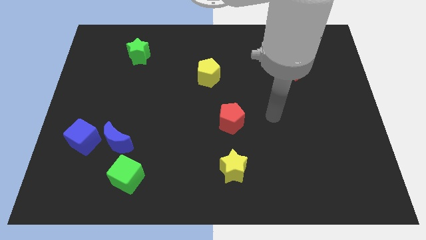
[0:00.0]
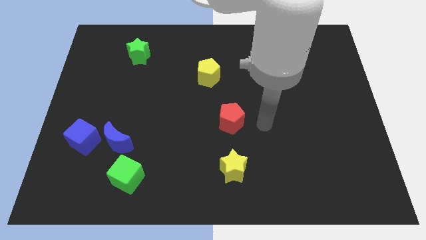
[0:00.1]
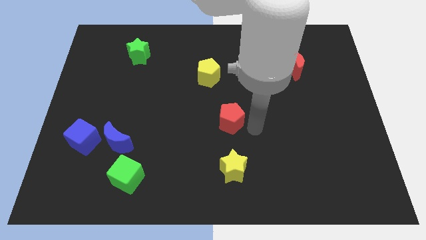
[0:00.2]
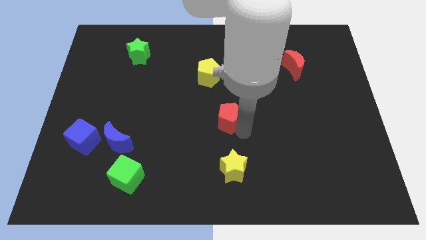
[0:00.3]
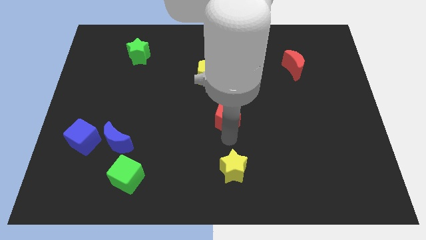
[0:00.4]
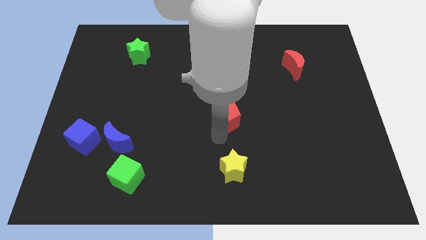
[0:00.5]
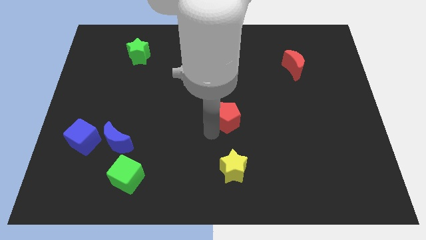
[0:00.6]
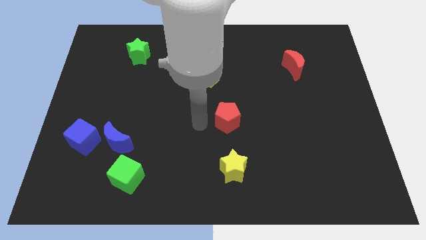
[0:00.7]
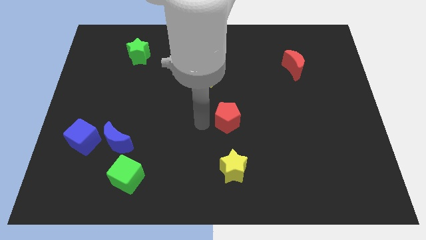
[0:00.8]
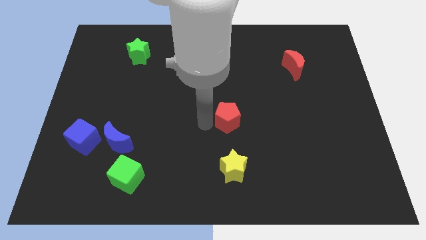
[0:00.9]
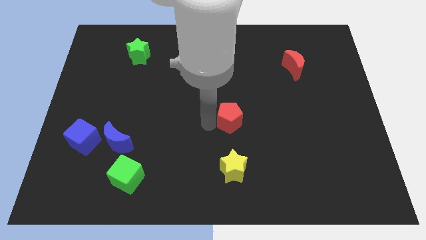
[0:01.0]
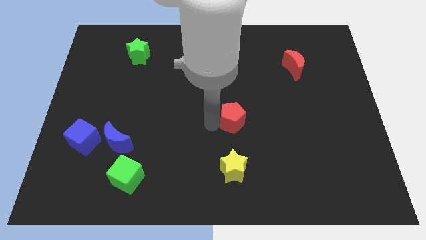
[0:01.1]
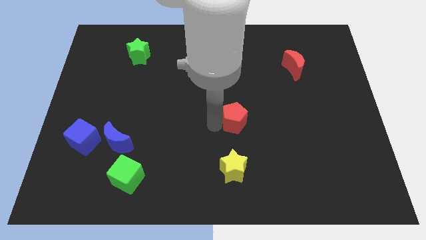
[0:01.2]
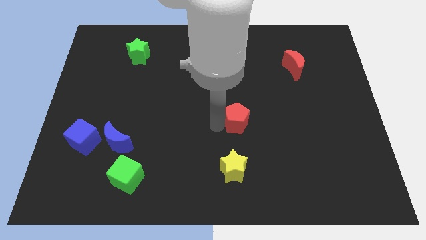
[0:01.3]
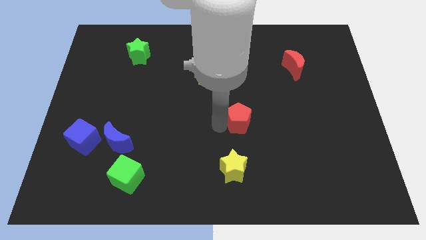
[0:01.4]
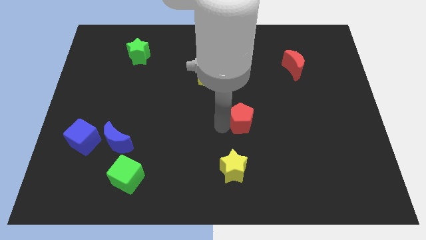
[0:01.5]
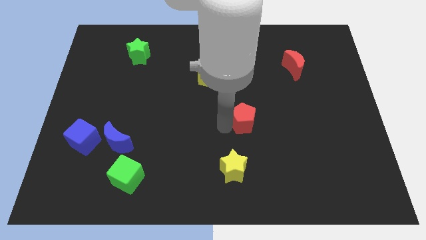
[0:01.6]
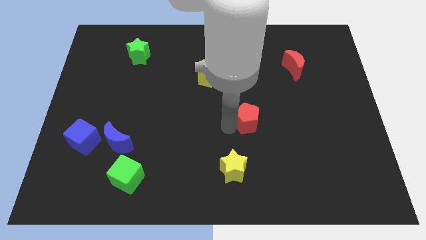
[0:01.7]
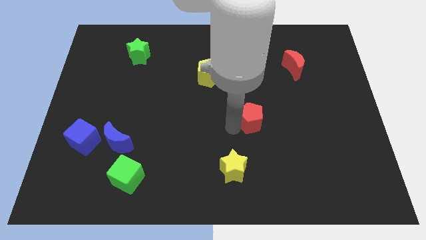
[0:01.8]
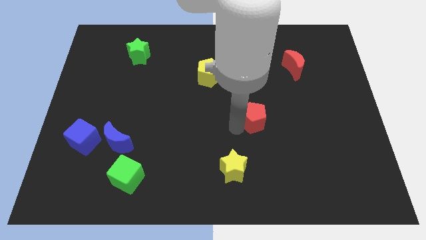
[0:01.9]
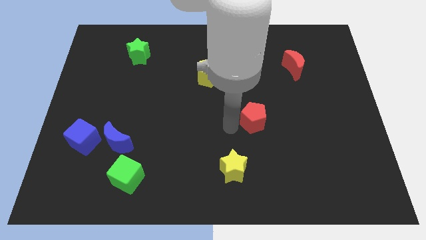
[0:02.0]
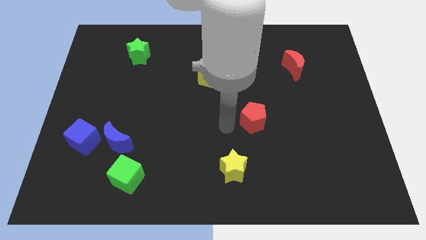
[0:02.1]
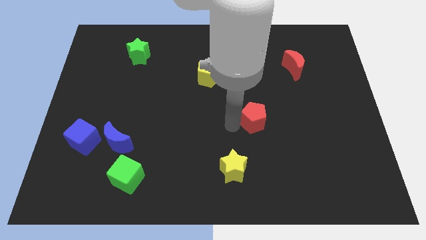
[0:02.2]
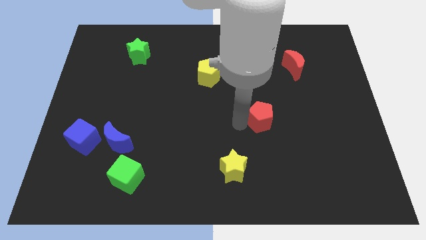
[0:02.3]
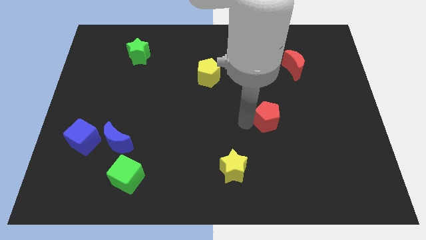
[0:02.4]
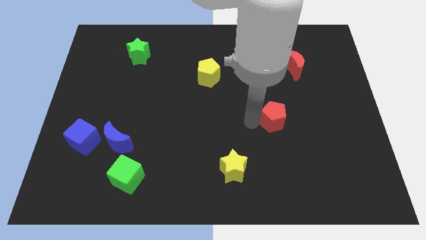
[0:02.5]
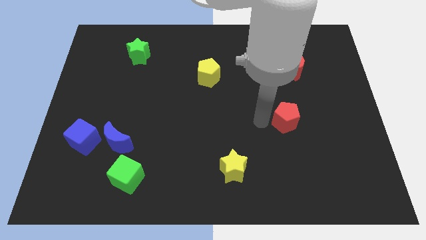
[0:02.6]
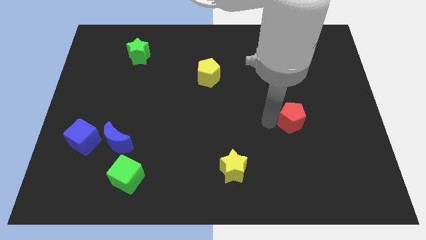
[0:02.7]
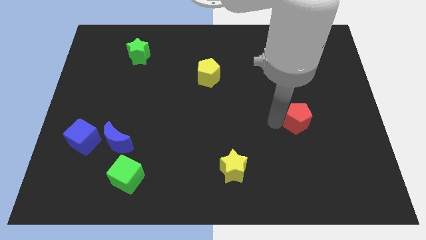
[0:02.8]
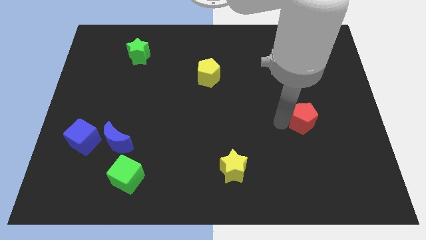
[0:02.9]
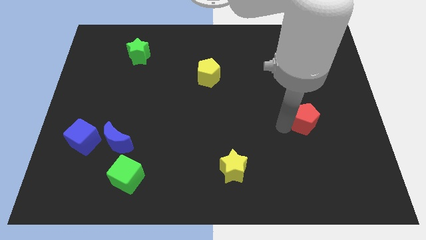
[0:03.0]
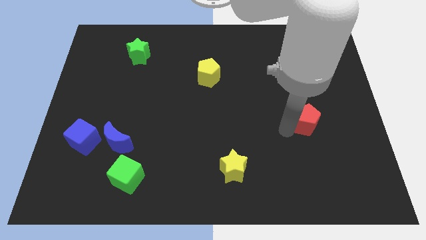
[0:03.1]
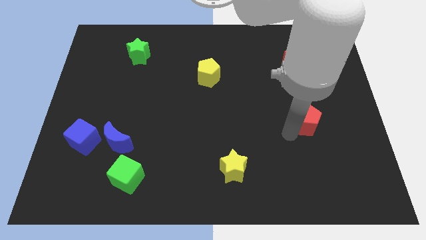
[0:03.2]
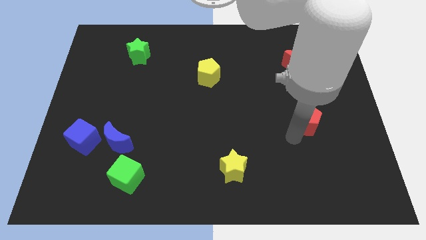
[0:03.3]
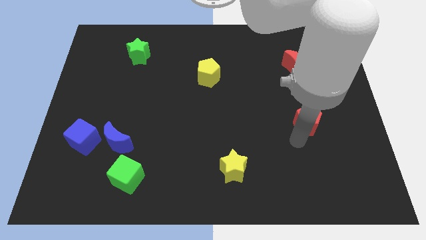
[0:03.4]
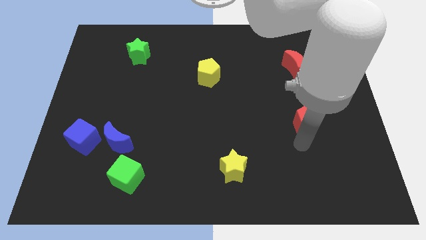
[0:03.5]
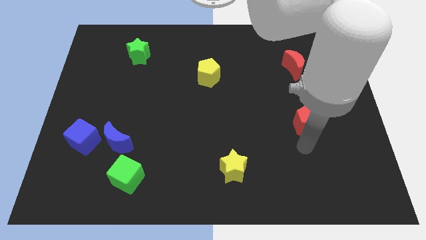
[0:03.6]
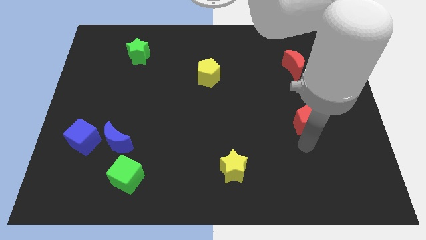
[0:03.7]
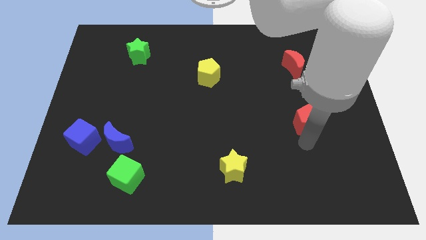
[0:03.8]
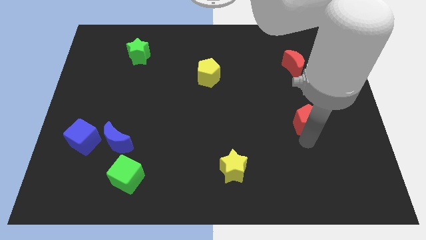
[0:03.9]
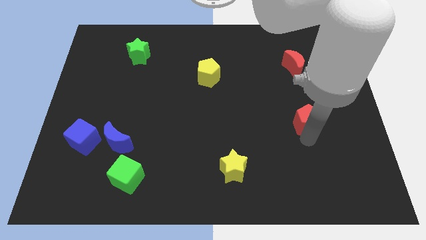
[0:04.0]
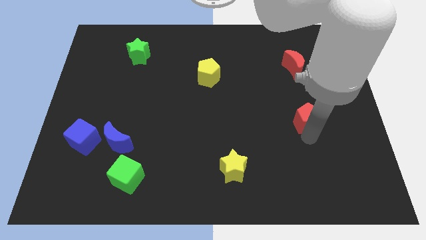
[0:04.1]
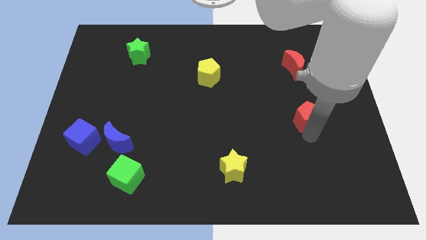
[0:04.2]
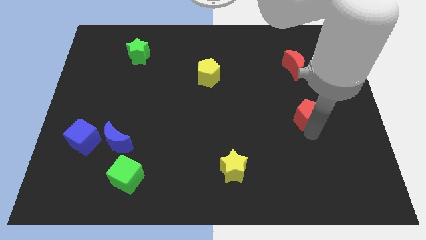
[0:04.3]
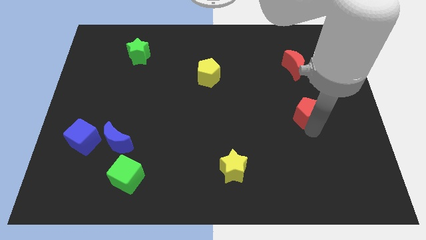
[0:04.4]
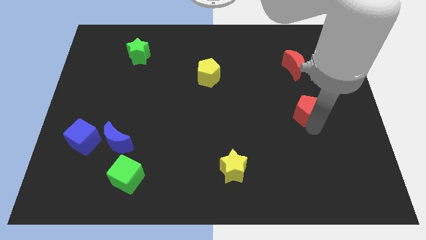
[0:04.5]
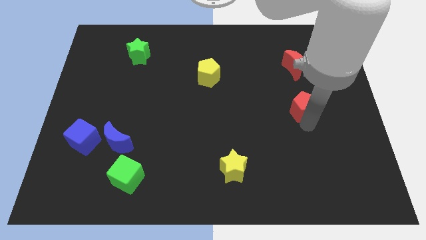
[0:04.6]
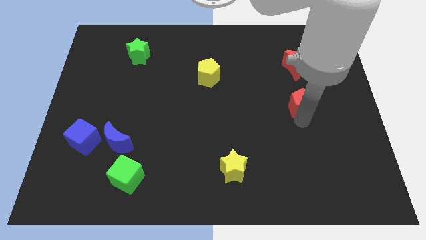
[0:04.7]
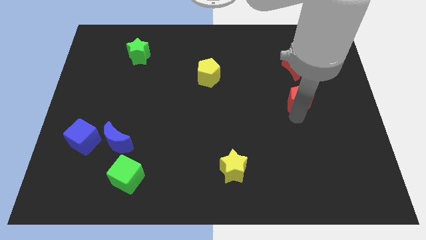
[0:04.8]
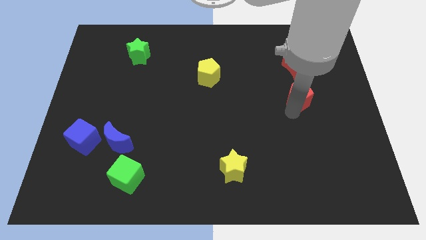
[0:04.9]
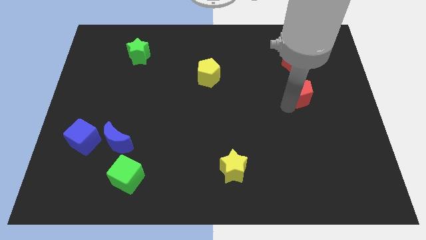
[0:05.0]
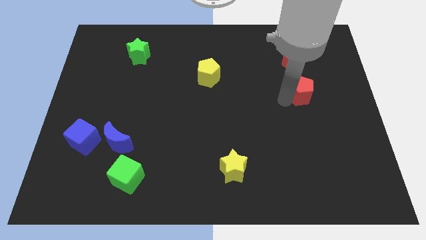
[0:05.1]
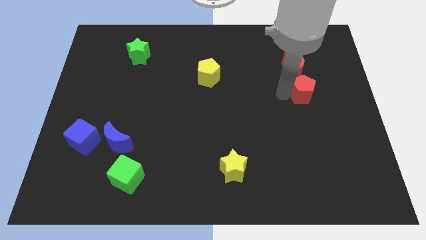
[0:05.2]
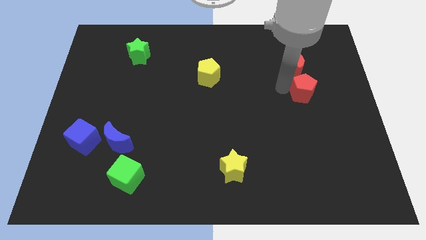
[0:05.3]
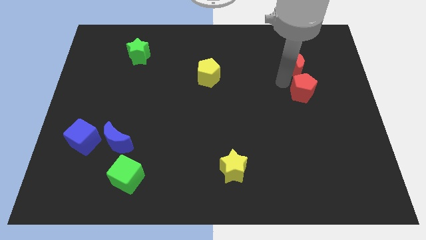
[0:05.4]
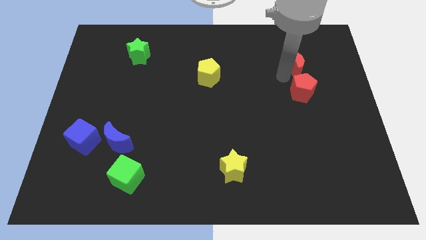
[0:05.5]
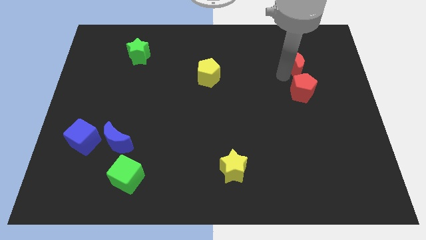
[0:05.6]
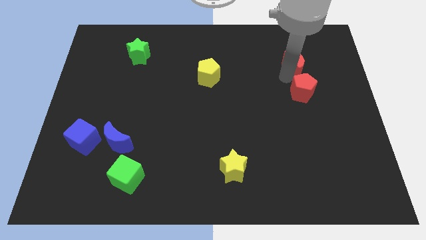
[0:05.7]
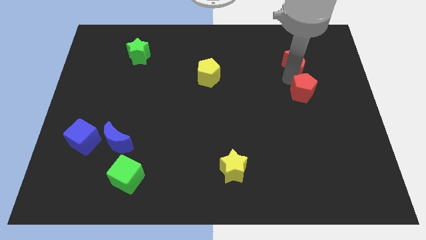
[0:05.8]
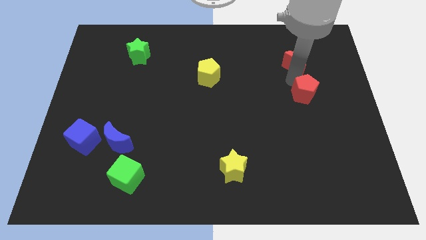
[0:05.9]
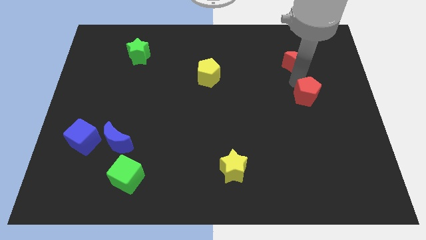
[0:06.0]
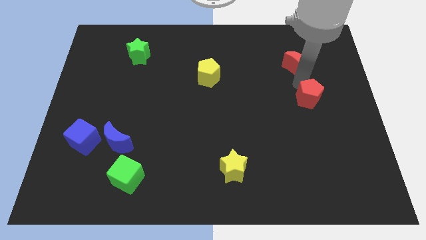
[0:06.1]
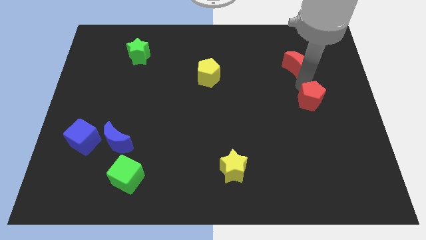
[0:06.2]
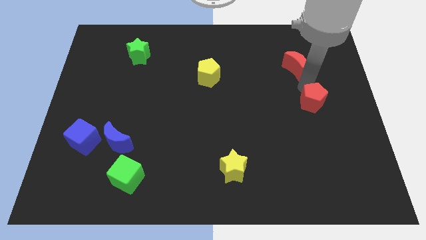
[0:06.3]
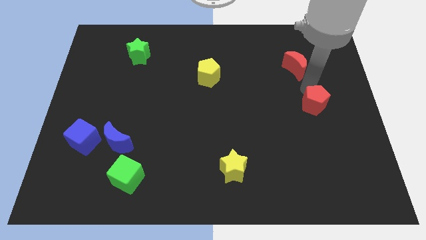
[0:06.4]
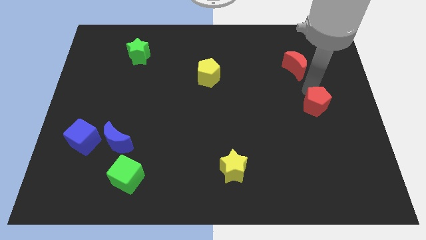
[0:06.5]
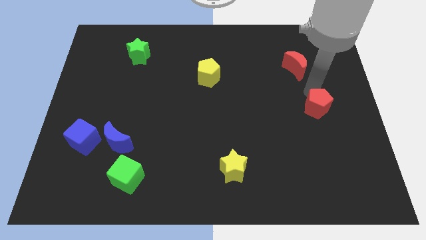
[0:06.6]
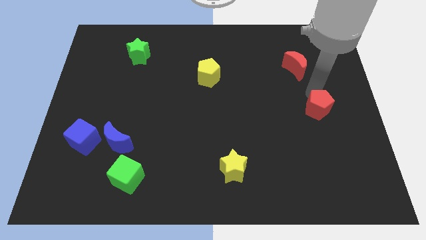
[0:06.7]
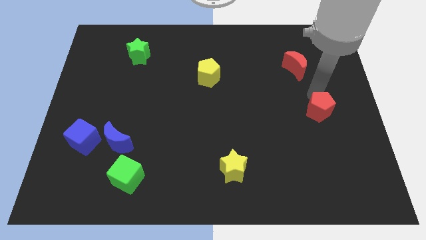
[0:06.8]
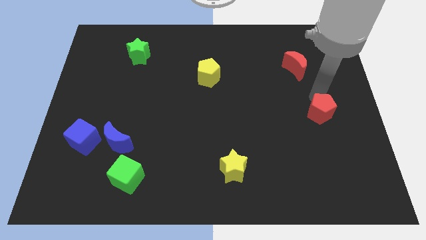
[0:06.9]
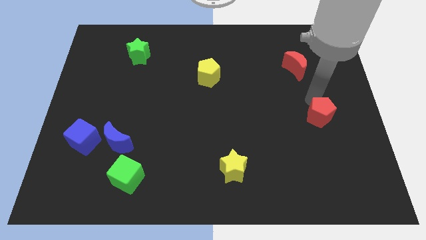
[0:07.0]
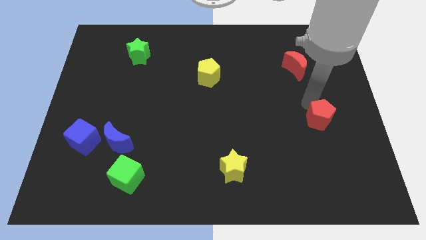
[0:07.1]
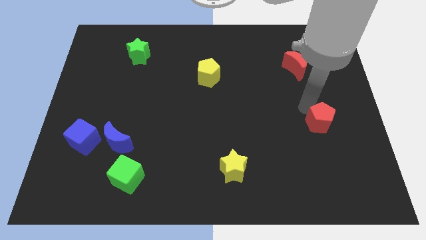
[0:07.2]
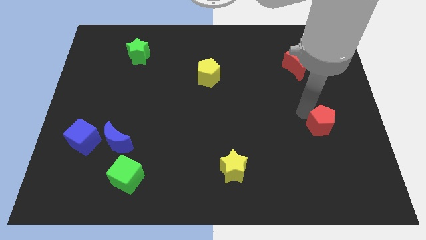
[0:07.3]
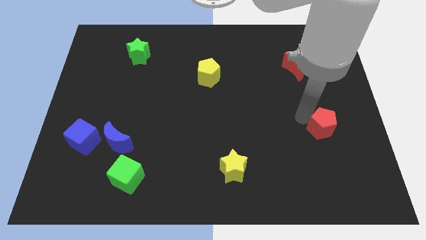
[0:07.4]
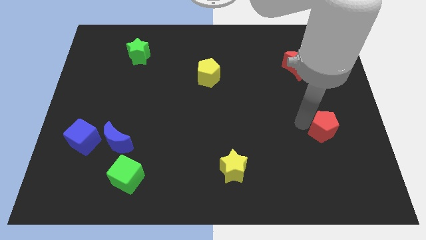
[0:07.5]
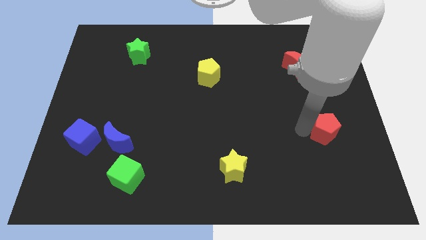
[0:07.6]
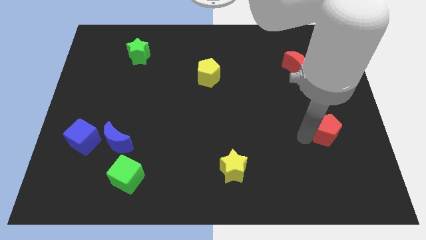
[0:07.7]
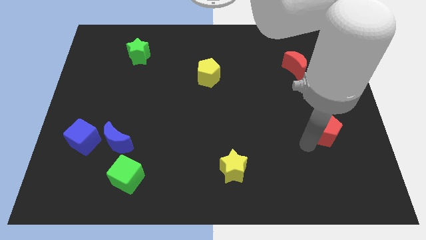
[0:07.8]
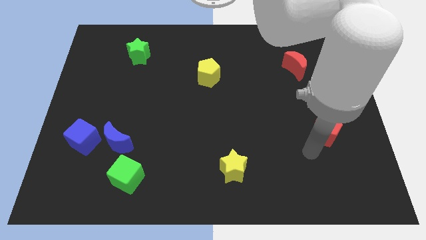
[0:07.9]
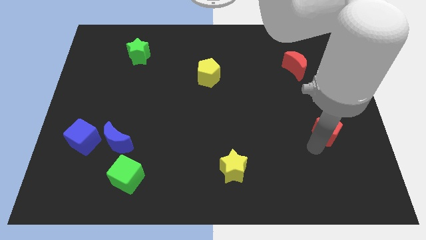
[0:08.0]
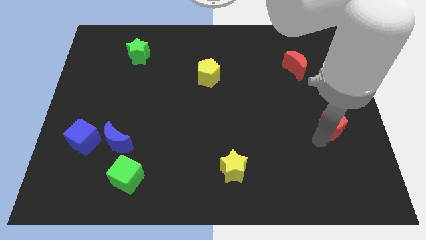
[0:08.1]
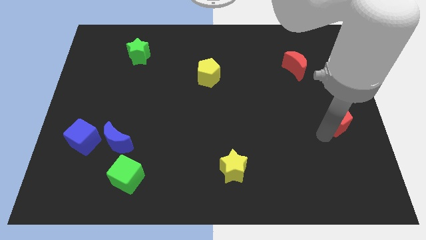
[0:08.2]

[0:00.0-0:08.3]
slide the red pentagon to the right side
